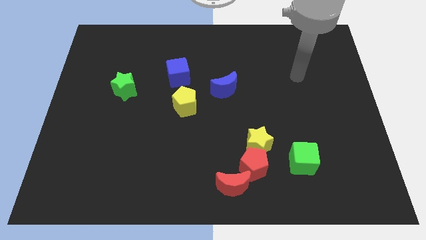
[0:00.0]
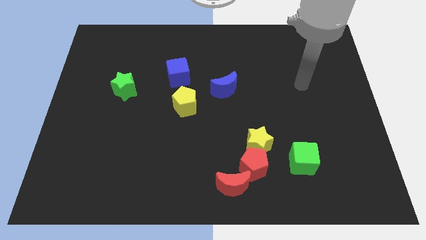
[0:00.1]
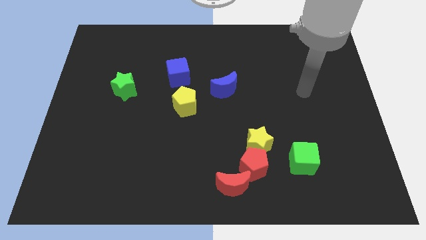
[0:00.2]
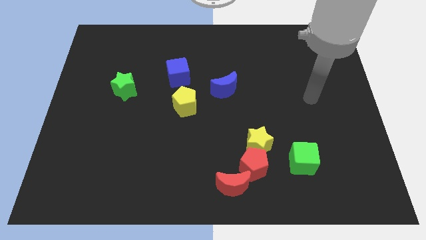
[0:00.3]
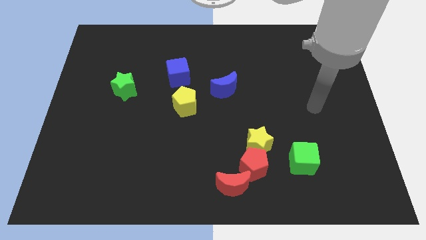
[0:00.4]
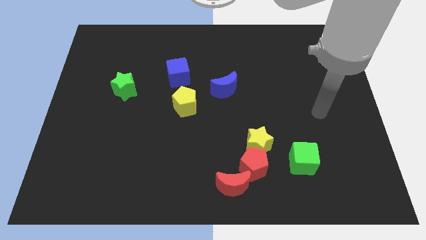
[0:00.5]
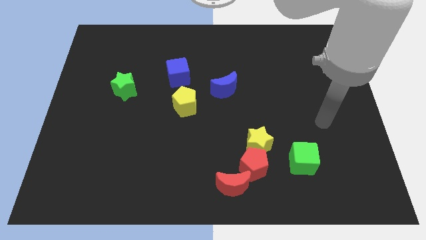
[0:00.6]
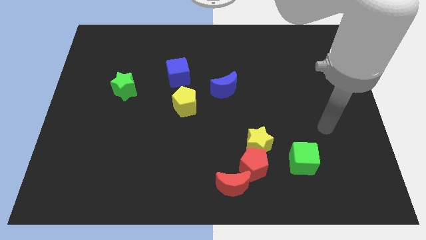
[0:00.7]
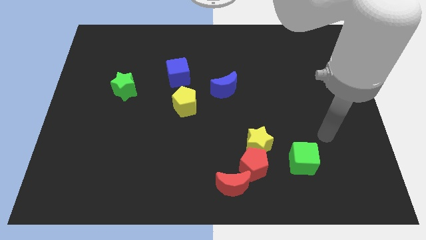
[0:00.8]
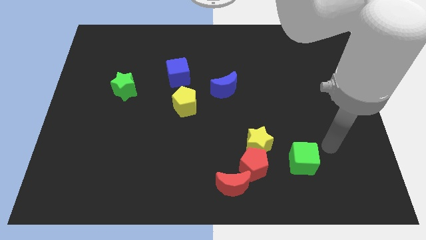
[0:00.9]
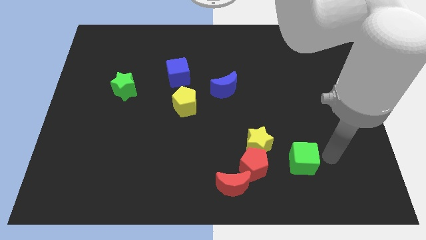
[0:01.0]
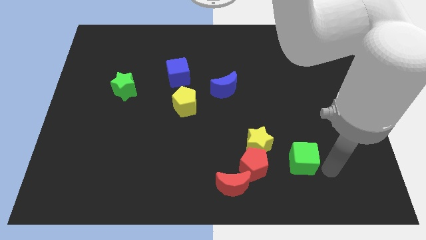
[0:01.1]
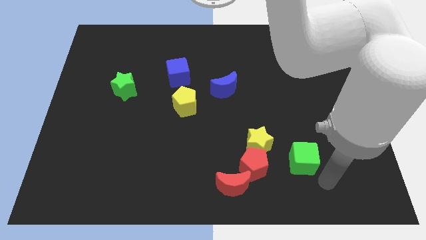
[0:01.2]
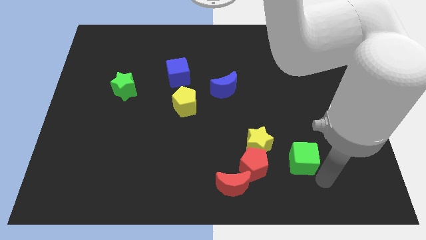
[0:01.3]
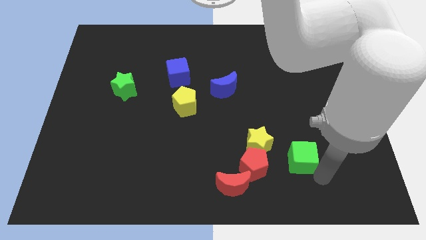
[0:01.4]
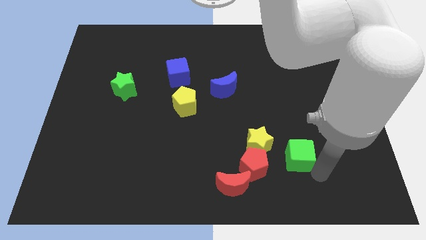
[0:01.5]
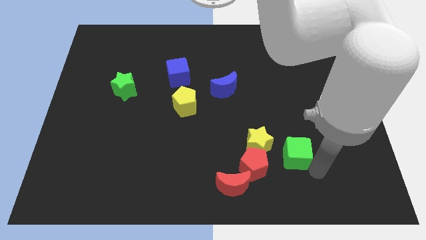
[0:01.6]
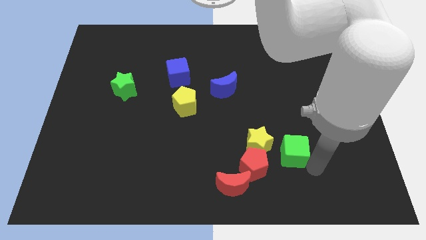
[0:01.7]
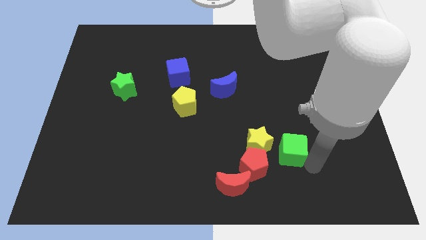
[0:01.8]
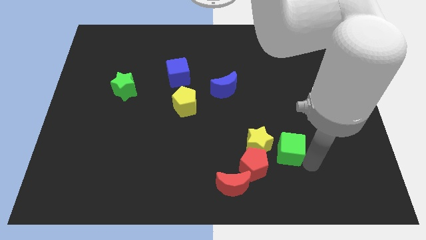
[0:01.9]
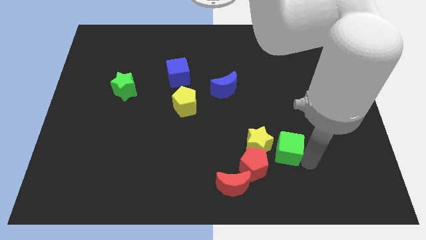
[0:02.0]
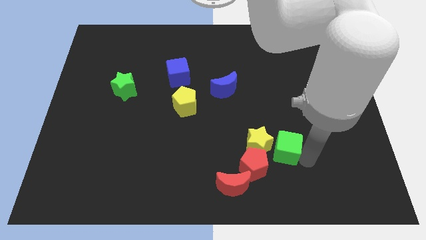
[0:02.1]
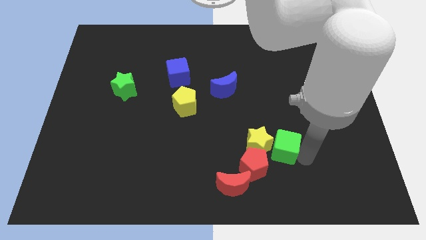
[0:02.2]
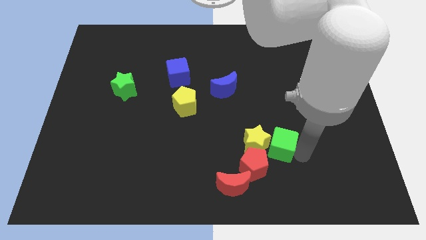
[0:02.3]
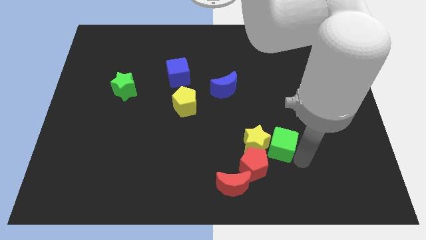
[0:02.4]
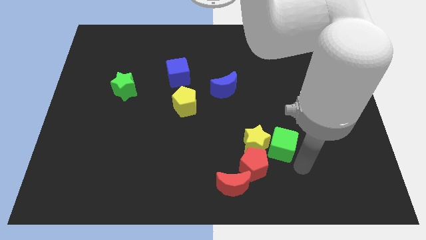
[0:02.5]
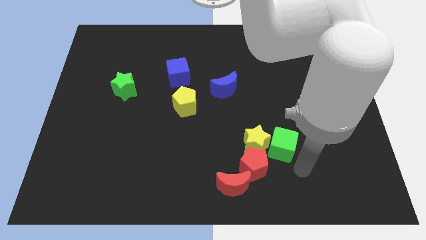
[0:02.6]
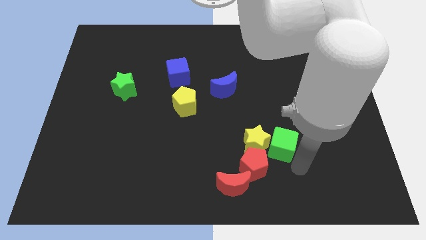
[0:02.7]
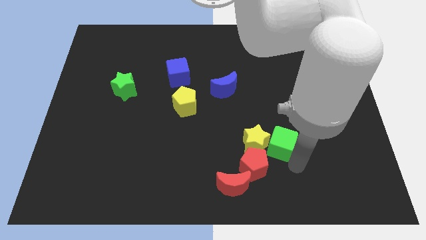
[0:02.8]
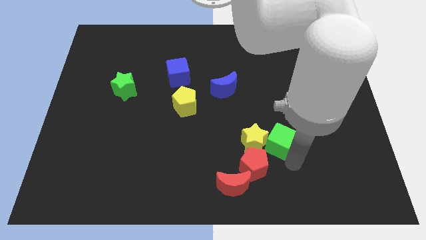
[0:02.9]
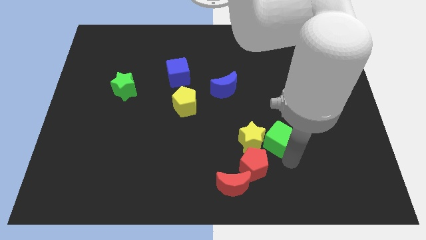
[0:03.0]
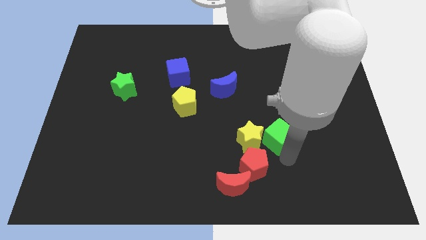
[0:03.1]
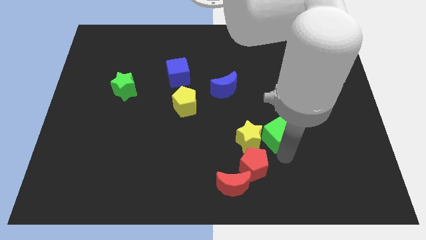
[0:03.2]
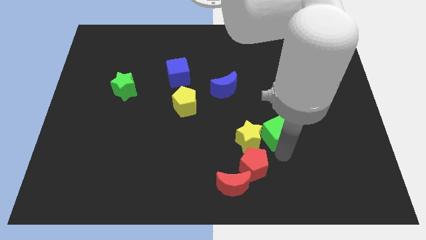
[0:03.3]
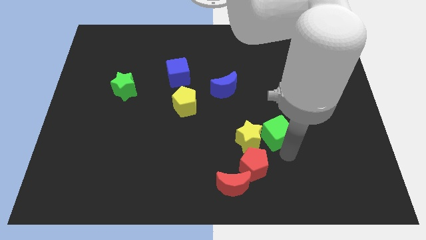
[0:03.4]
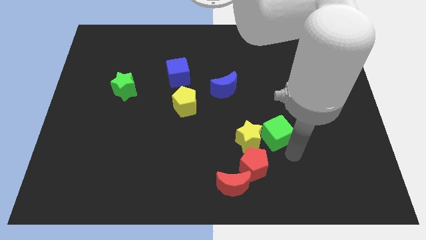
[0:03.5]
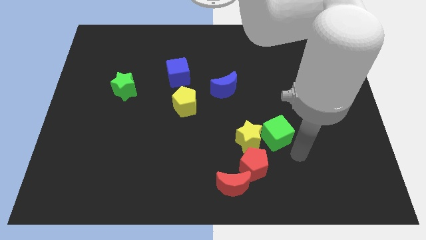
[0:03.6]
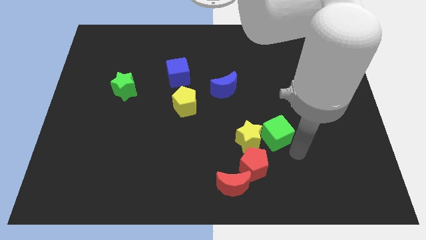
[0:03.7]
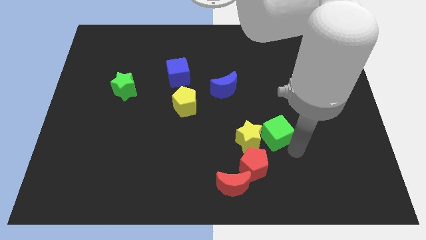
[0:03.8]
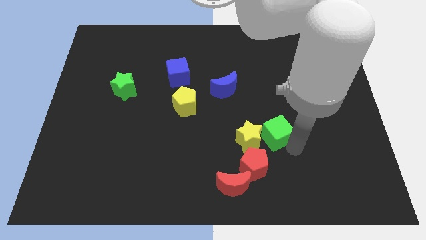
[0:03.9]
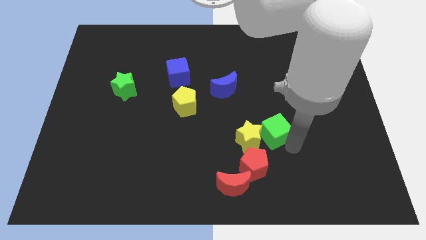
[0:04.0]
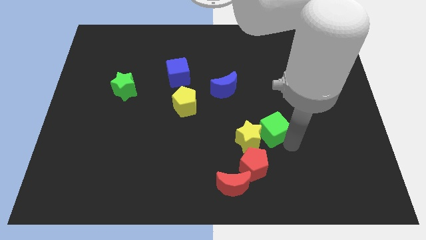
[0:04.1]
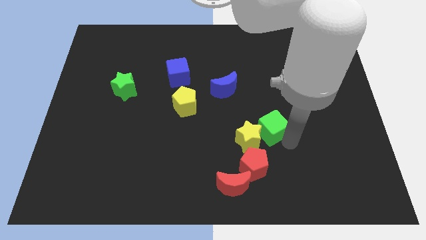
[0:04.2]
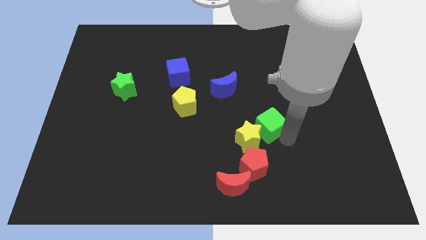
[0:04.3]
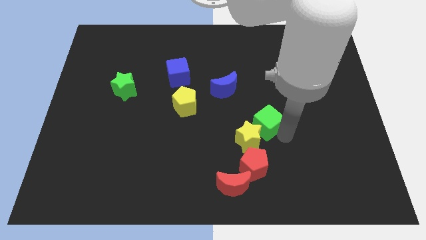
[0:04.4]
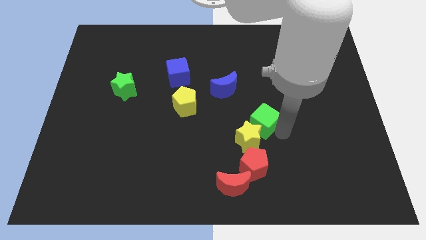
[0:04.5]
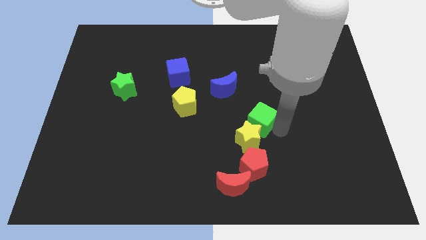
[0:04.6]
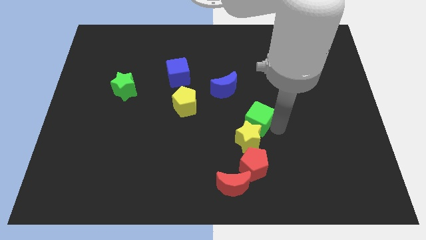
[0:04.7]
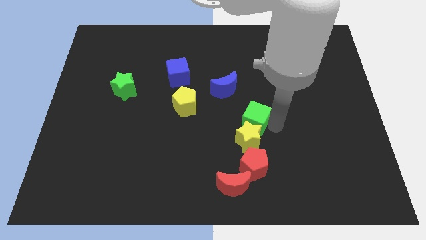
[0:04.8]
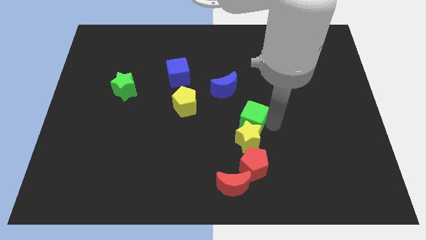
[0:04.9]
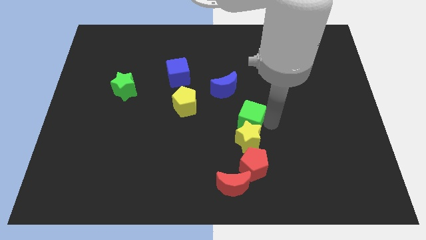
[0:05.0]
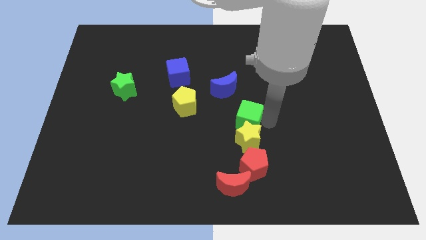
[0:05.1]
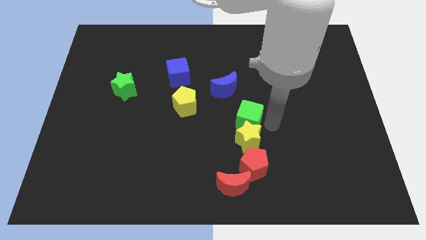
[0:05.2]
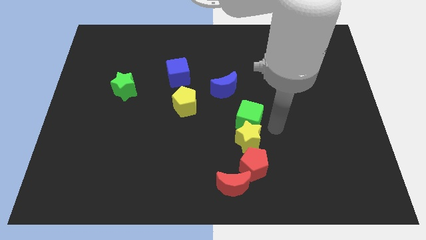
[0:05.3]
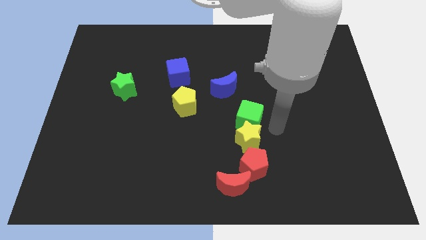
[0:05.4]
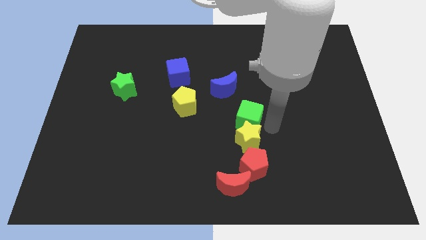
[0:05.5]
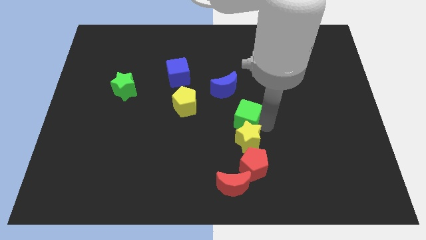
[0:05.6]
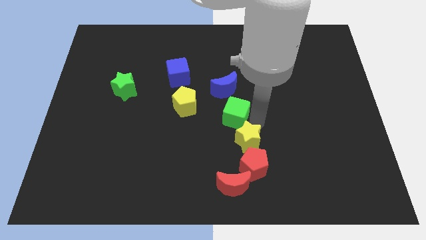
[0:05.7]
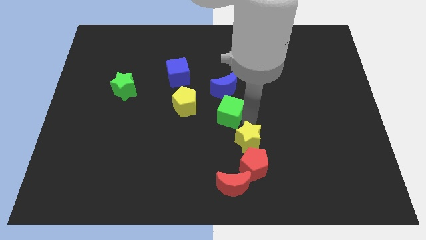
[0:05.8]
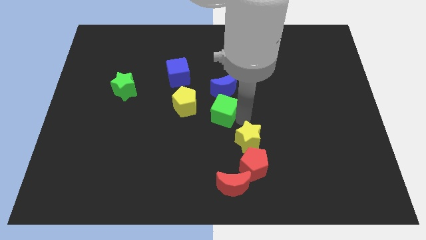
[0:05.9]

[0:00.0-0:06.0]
move the green cube up and left diagonally

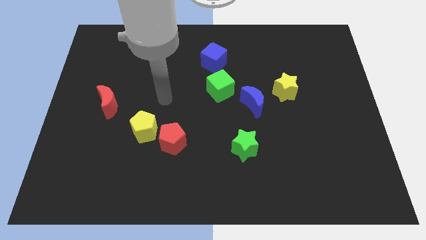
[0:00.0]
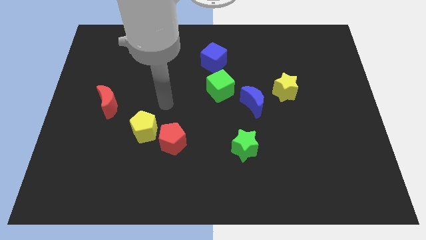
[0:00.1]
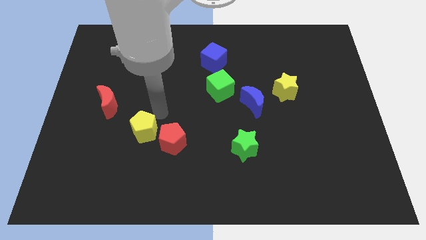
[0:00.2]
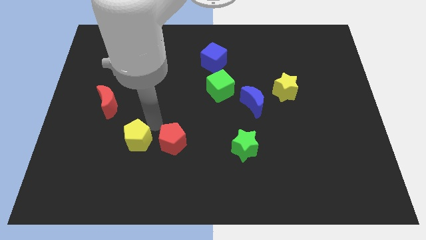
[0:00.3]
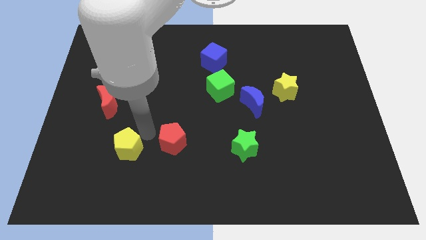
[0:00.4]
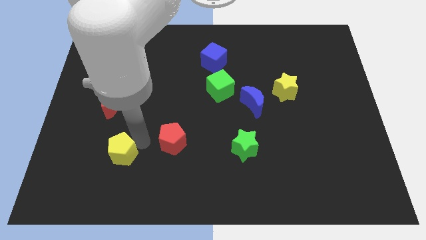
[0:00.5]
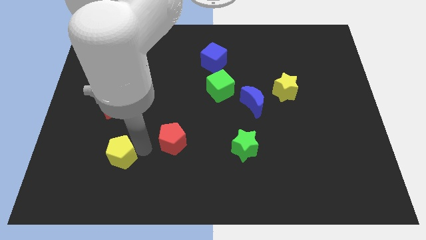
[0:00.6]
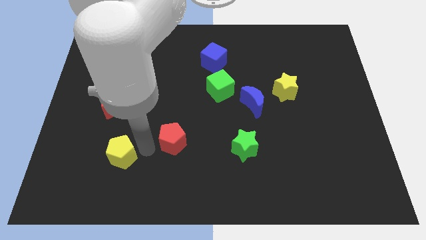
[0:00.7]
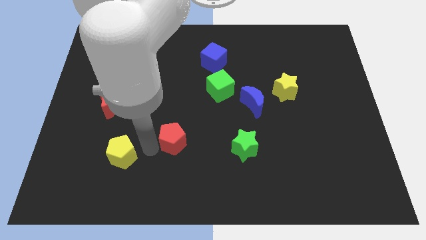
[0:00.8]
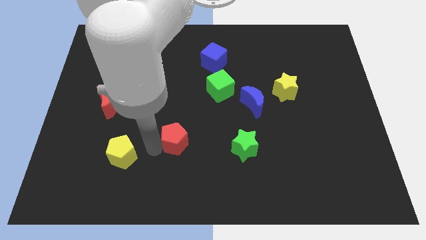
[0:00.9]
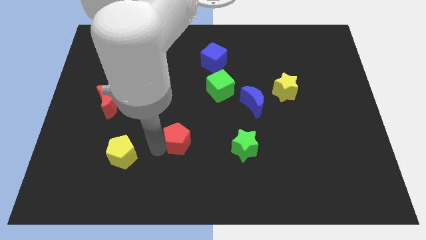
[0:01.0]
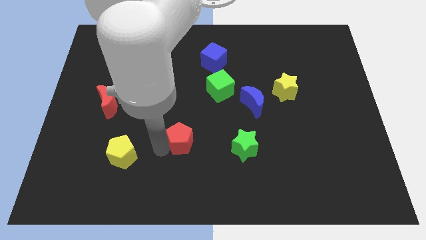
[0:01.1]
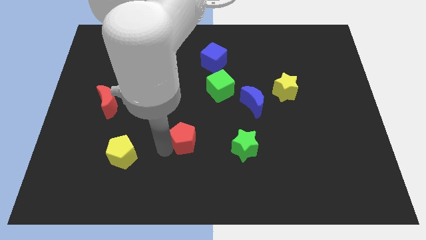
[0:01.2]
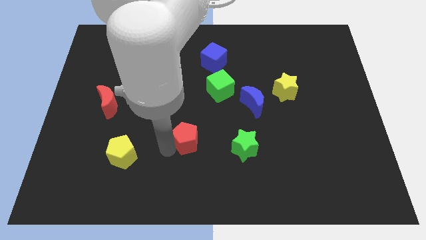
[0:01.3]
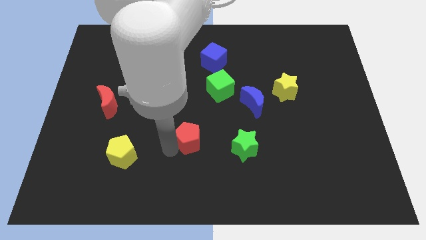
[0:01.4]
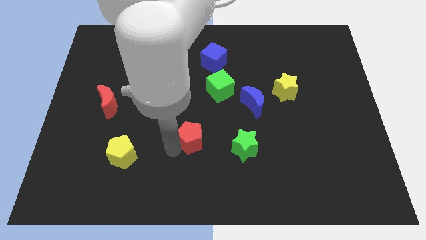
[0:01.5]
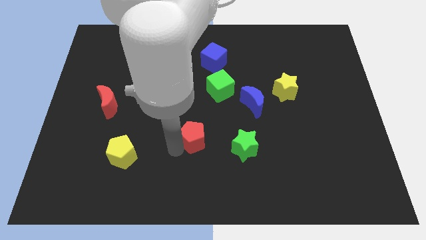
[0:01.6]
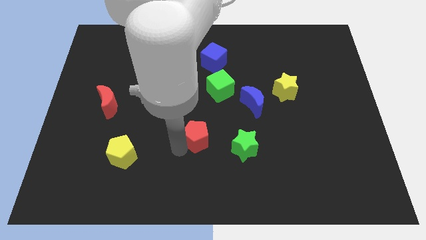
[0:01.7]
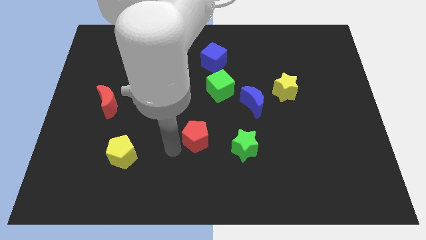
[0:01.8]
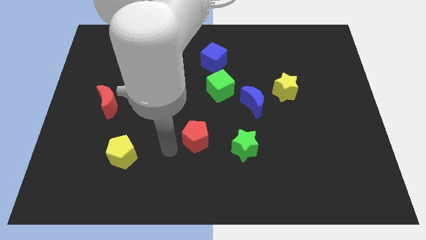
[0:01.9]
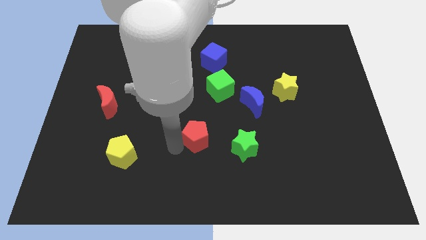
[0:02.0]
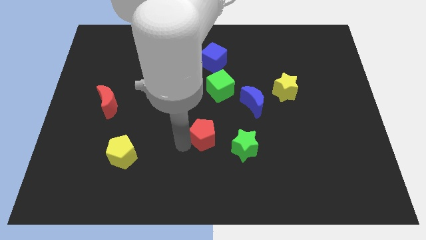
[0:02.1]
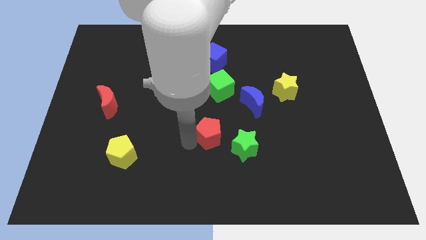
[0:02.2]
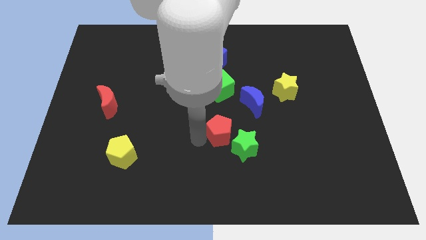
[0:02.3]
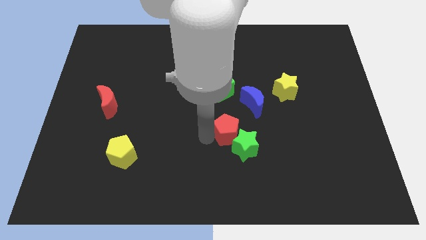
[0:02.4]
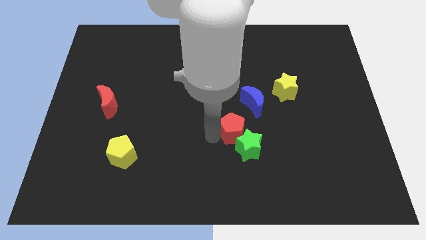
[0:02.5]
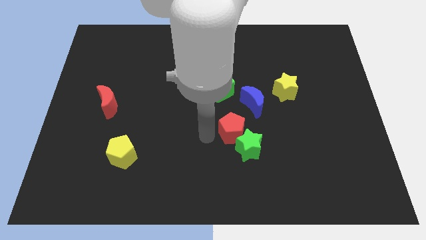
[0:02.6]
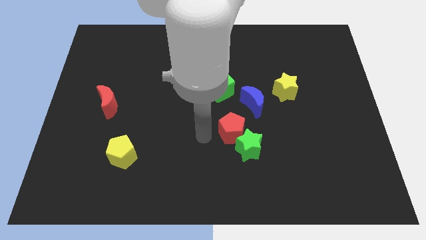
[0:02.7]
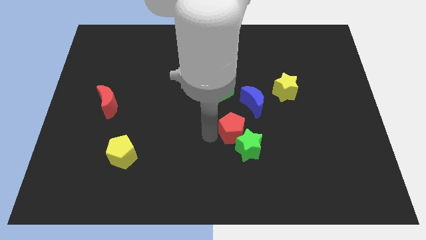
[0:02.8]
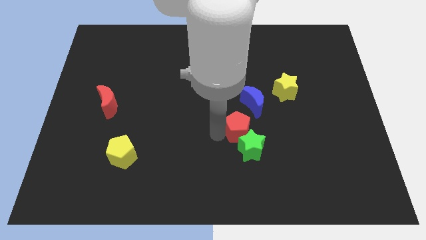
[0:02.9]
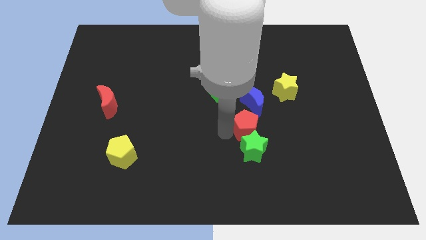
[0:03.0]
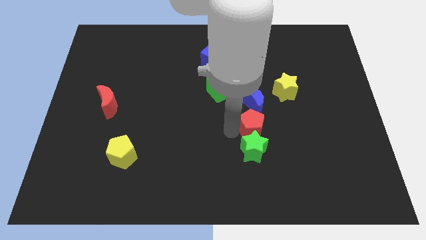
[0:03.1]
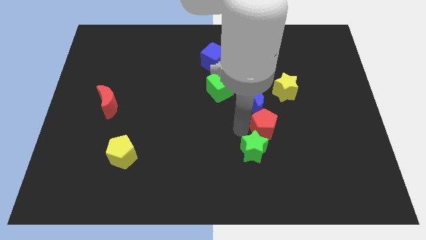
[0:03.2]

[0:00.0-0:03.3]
move the red pentagon to the right
